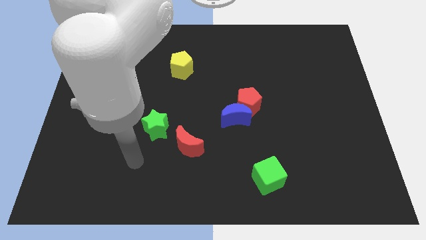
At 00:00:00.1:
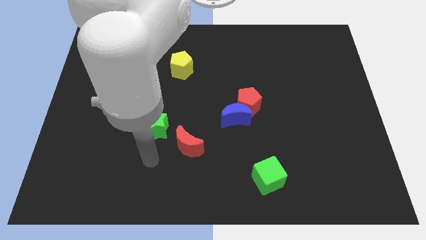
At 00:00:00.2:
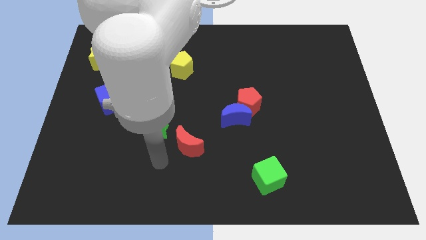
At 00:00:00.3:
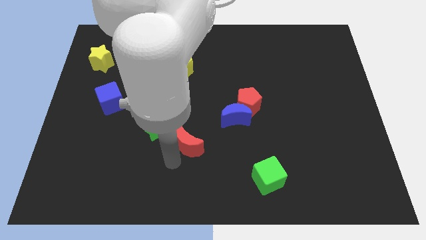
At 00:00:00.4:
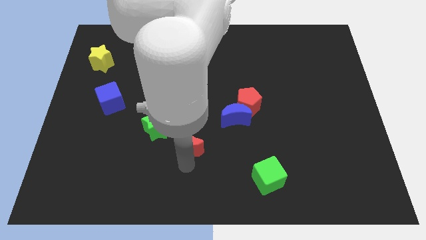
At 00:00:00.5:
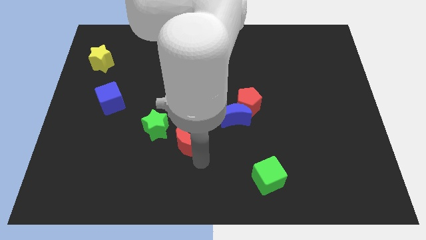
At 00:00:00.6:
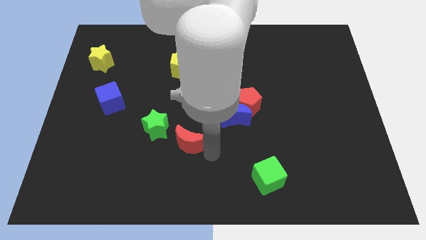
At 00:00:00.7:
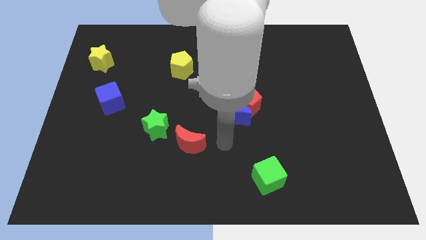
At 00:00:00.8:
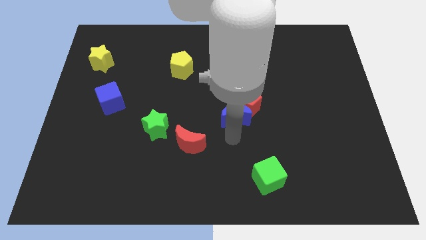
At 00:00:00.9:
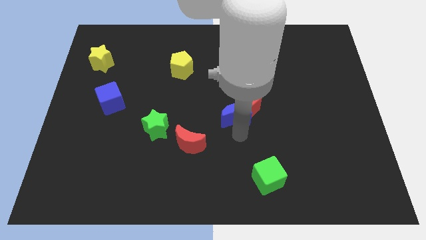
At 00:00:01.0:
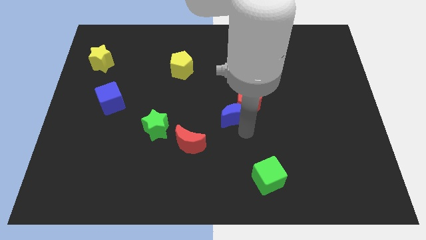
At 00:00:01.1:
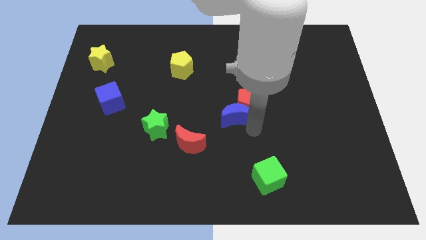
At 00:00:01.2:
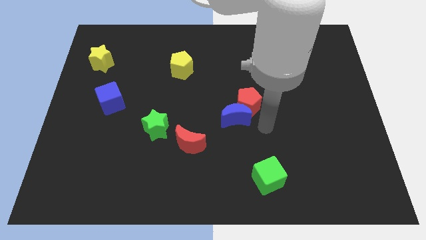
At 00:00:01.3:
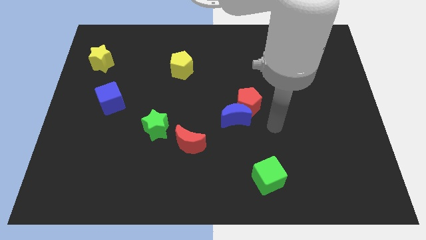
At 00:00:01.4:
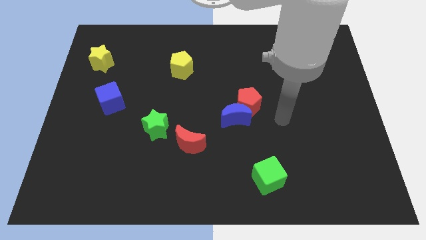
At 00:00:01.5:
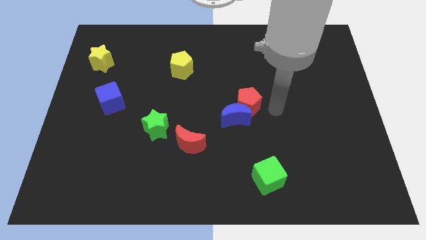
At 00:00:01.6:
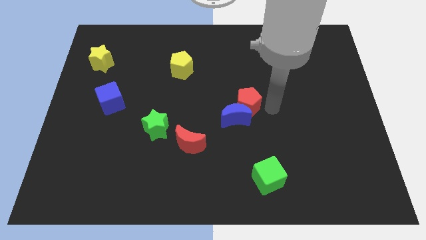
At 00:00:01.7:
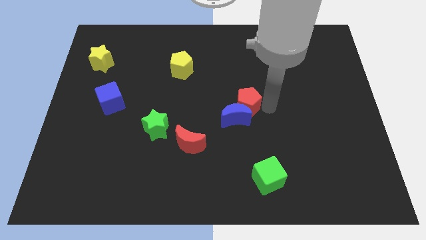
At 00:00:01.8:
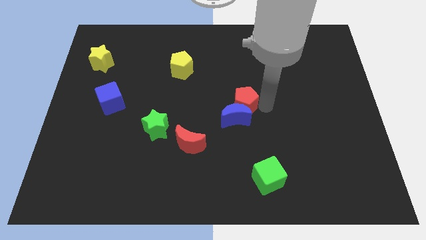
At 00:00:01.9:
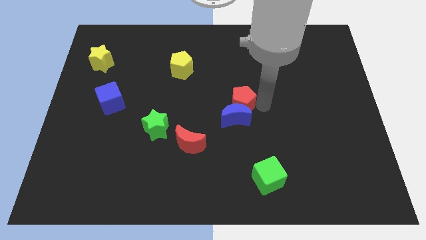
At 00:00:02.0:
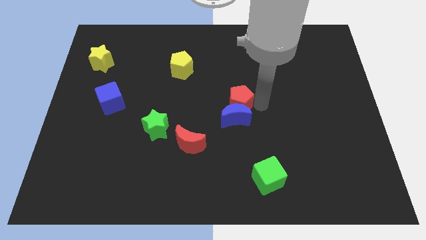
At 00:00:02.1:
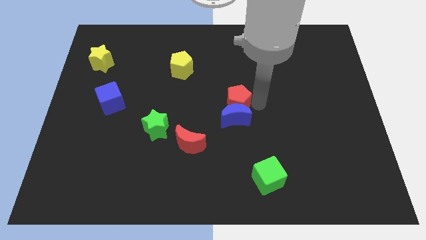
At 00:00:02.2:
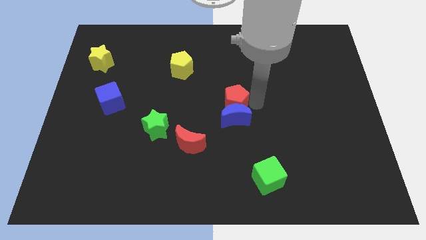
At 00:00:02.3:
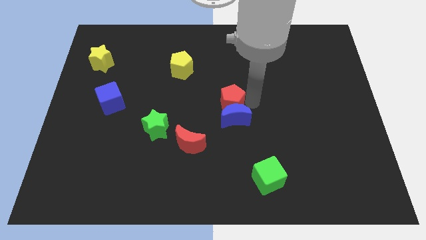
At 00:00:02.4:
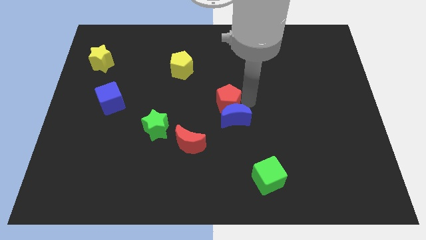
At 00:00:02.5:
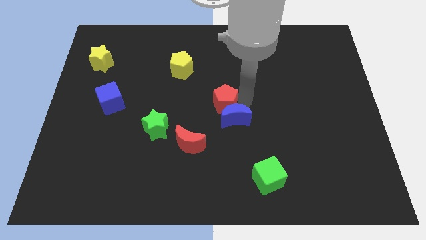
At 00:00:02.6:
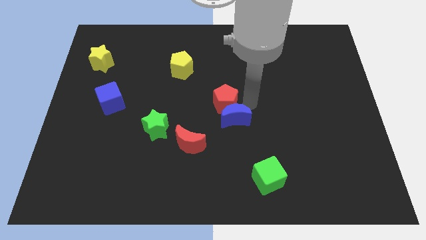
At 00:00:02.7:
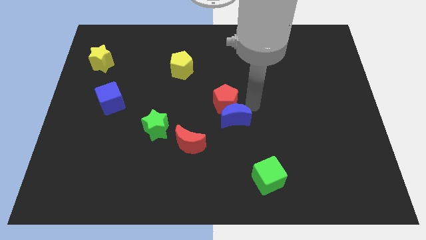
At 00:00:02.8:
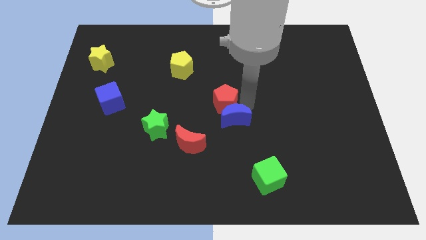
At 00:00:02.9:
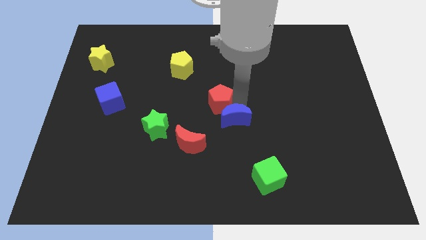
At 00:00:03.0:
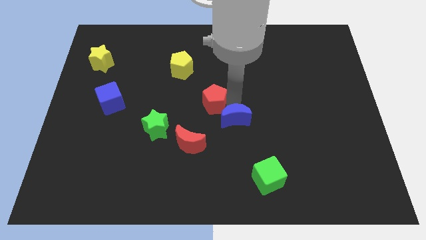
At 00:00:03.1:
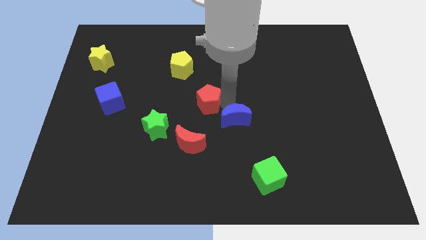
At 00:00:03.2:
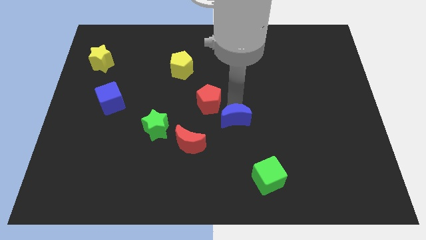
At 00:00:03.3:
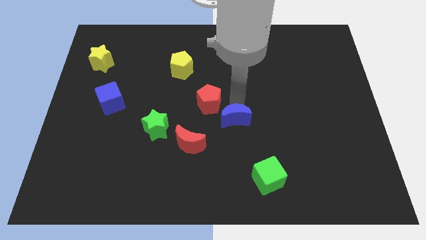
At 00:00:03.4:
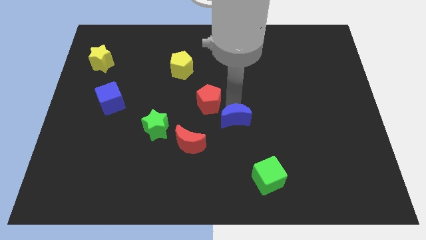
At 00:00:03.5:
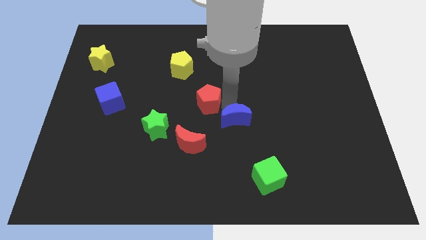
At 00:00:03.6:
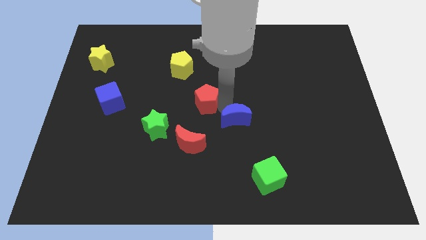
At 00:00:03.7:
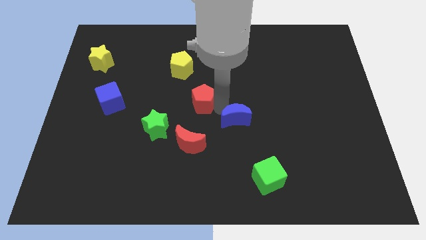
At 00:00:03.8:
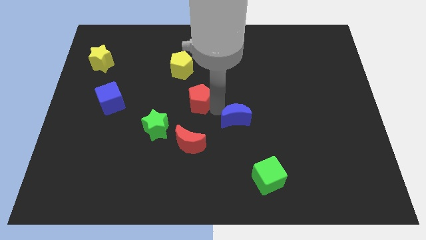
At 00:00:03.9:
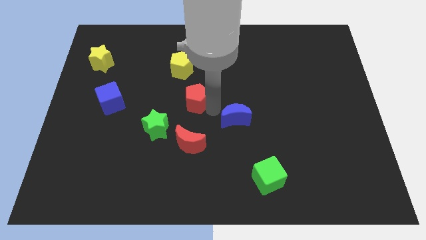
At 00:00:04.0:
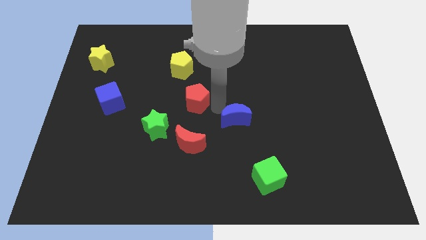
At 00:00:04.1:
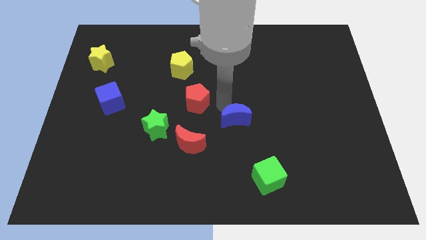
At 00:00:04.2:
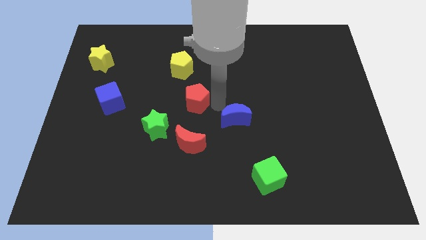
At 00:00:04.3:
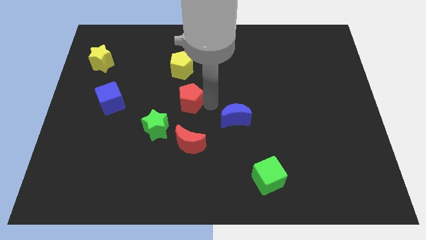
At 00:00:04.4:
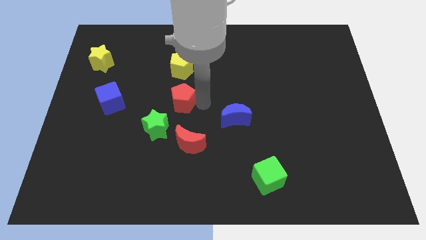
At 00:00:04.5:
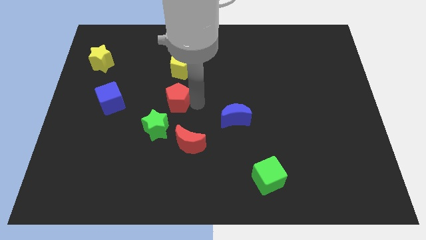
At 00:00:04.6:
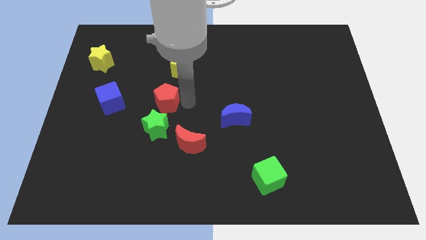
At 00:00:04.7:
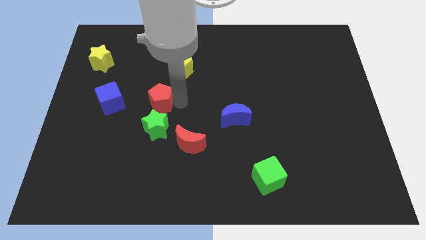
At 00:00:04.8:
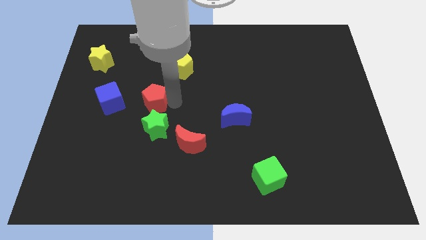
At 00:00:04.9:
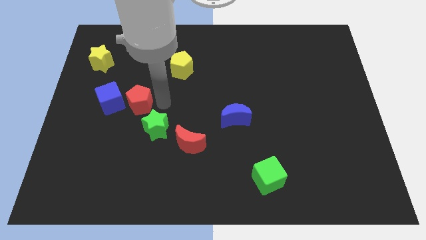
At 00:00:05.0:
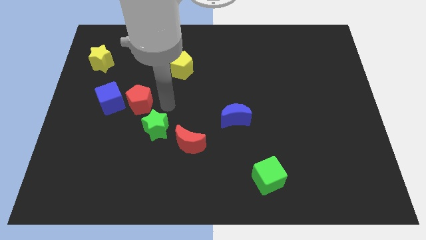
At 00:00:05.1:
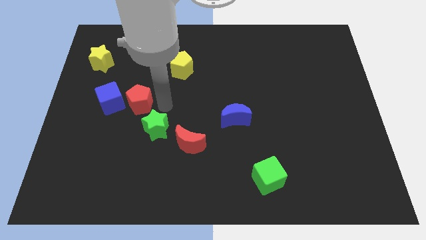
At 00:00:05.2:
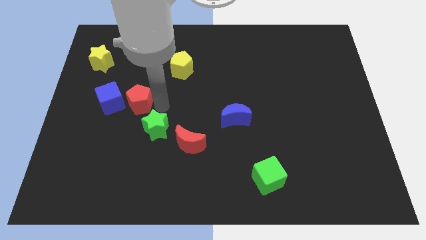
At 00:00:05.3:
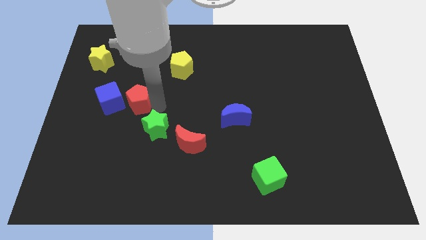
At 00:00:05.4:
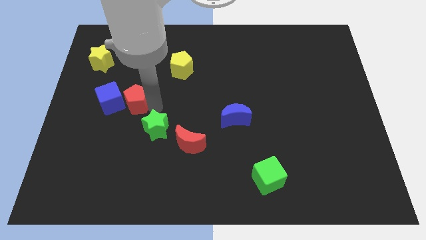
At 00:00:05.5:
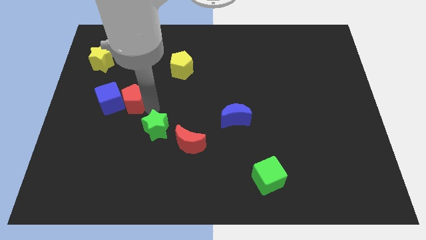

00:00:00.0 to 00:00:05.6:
push the red pentagon towards the blue cube

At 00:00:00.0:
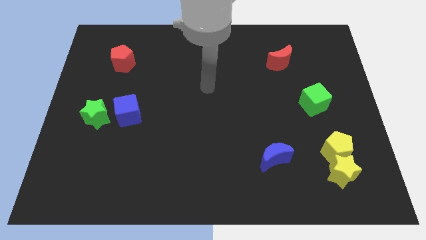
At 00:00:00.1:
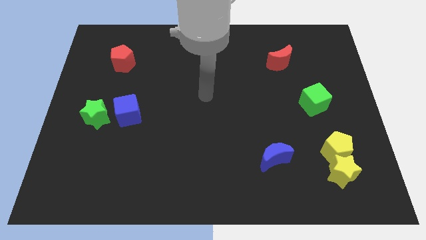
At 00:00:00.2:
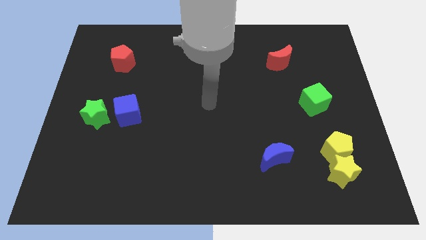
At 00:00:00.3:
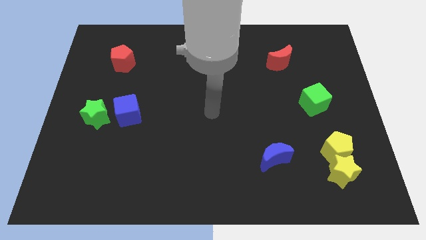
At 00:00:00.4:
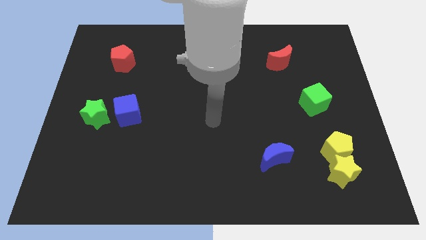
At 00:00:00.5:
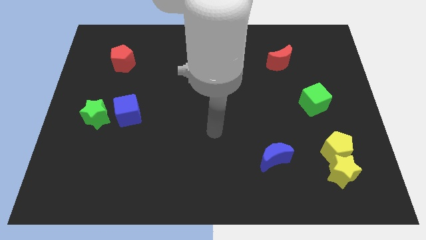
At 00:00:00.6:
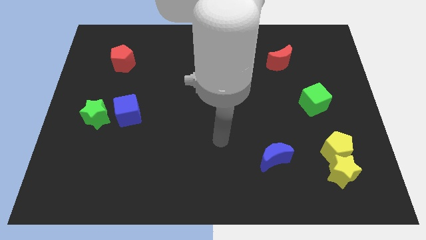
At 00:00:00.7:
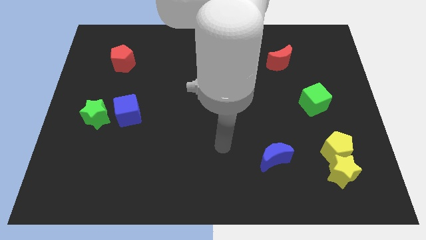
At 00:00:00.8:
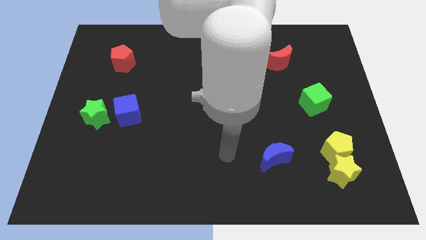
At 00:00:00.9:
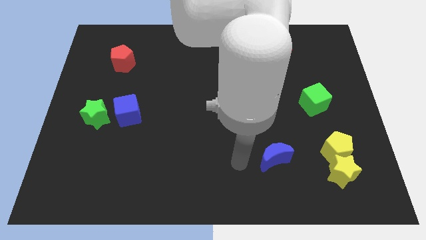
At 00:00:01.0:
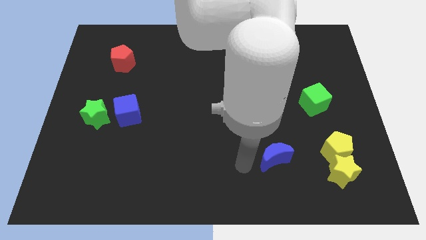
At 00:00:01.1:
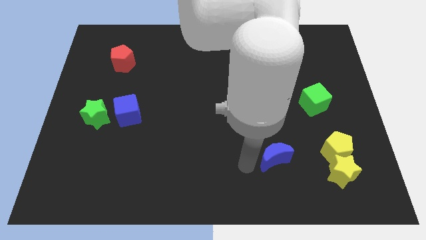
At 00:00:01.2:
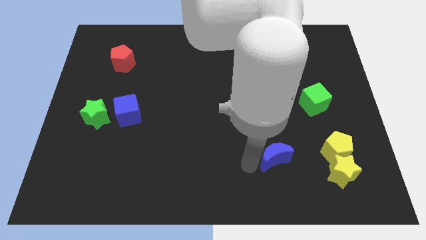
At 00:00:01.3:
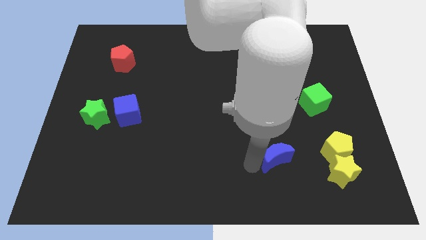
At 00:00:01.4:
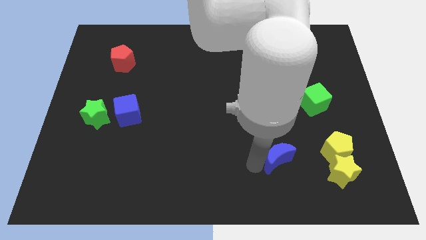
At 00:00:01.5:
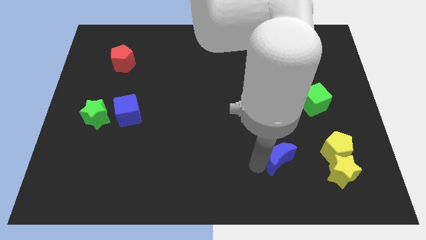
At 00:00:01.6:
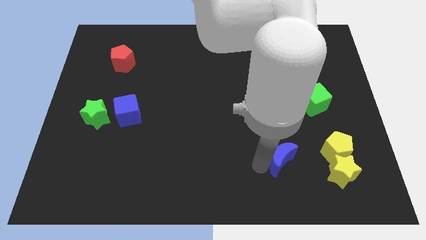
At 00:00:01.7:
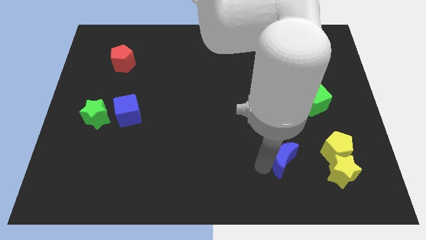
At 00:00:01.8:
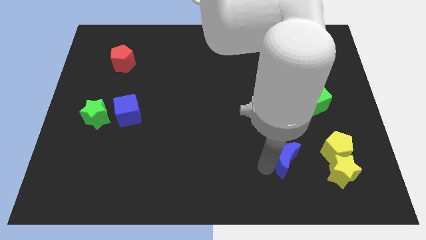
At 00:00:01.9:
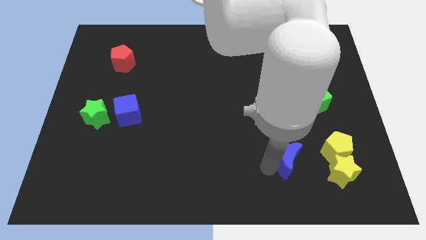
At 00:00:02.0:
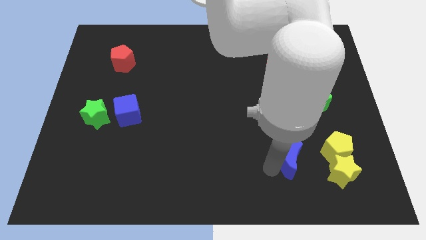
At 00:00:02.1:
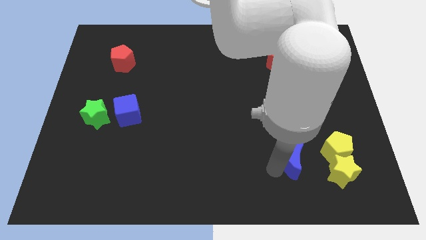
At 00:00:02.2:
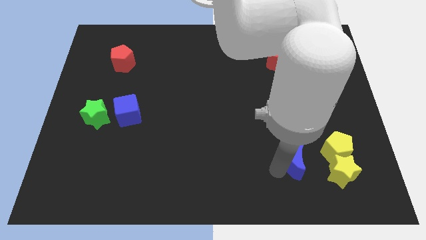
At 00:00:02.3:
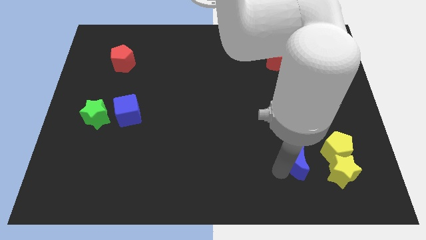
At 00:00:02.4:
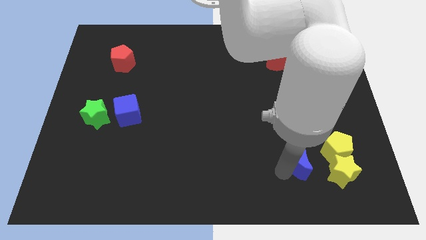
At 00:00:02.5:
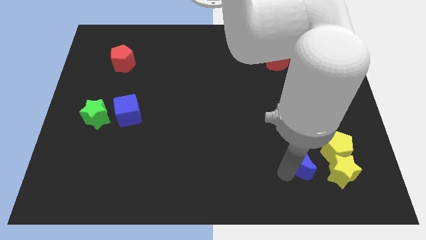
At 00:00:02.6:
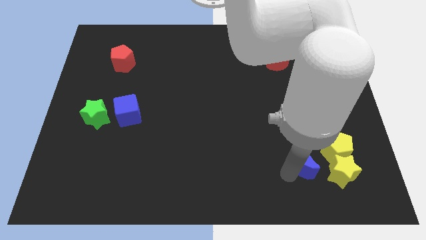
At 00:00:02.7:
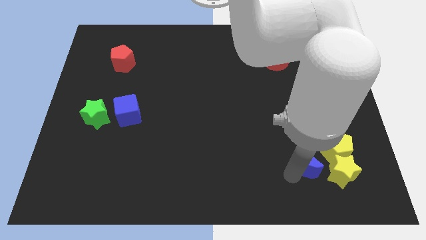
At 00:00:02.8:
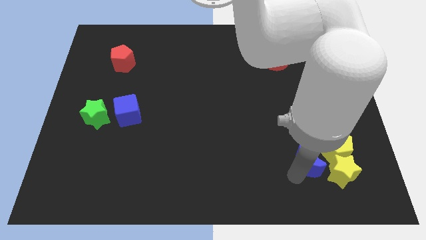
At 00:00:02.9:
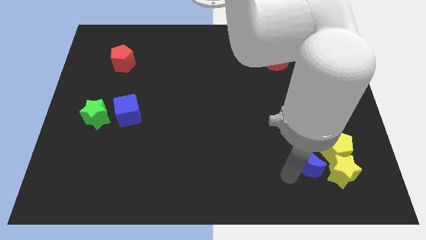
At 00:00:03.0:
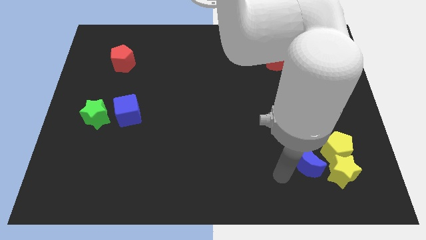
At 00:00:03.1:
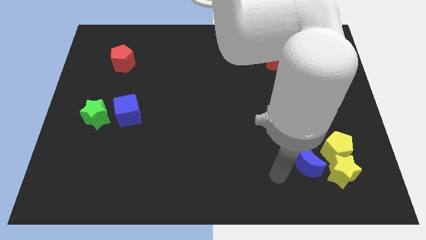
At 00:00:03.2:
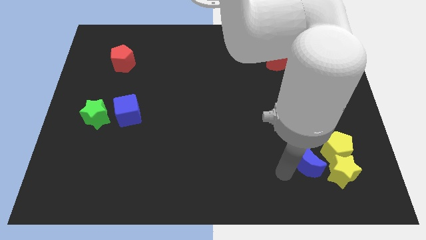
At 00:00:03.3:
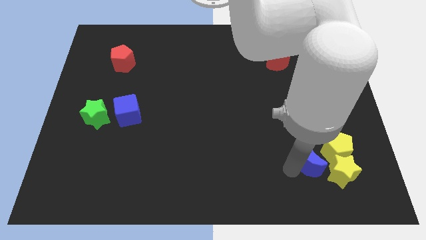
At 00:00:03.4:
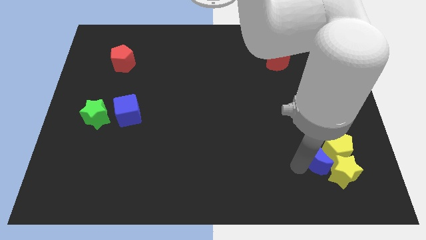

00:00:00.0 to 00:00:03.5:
slide the blue moon close to the yellow pentagon
